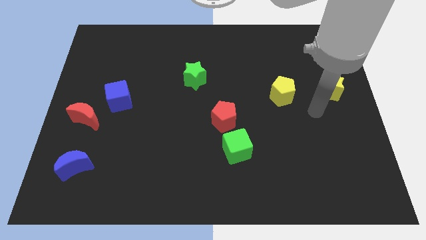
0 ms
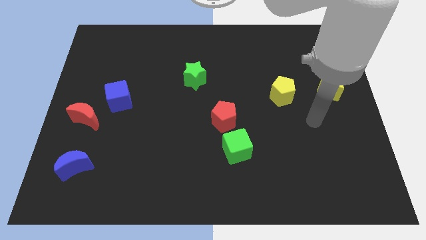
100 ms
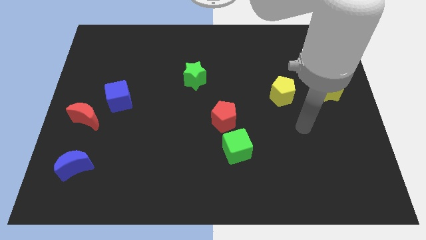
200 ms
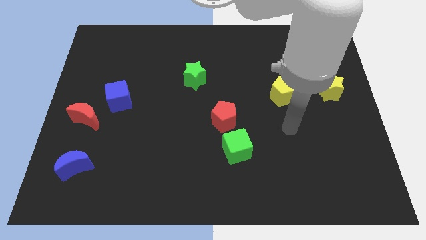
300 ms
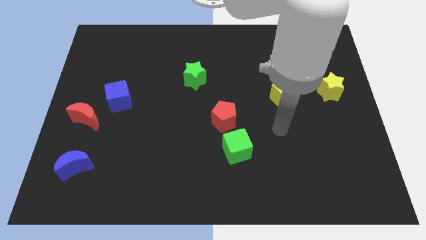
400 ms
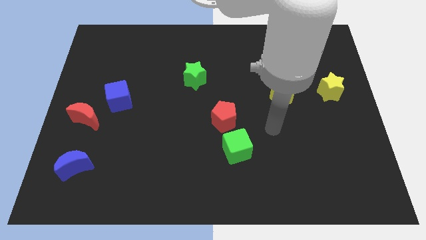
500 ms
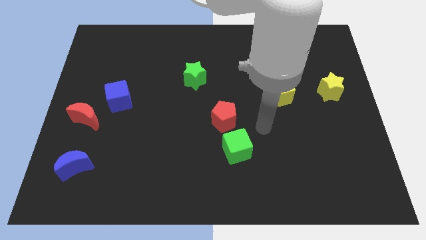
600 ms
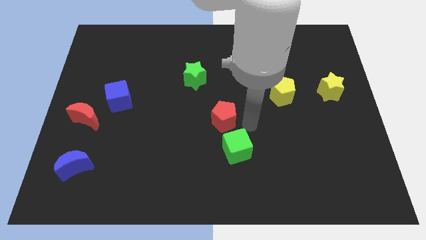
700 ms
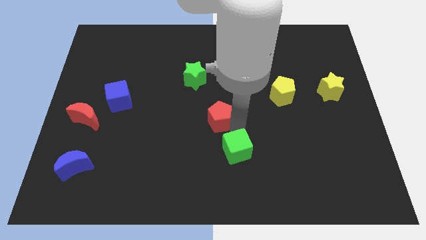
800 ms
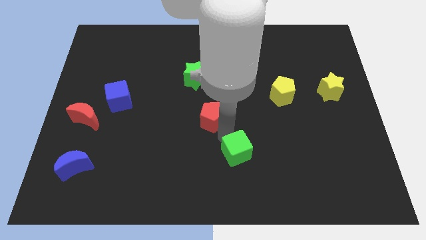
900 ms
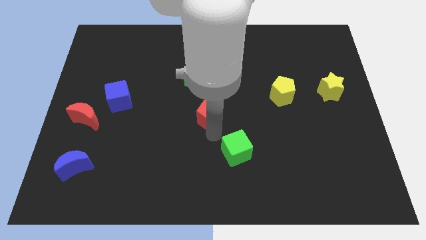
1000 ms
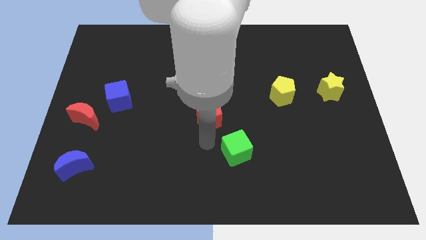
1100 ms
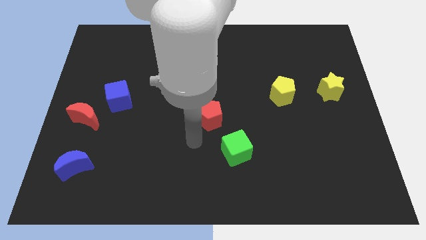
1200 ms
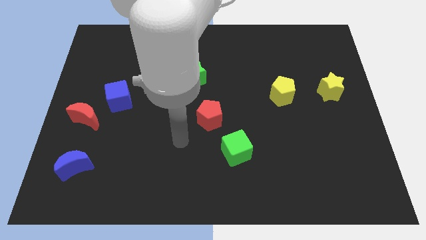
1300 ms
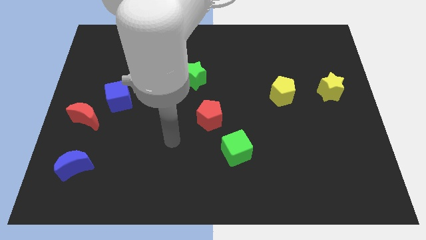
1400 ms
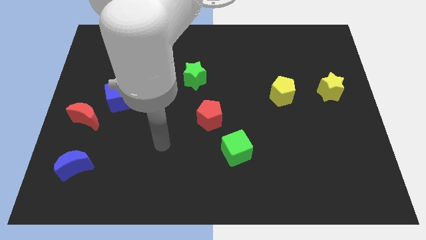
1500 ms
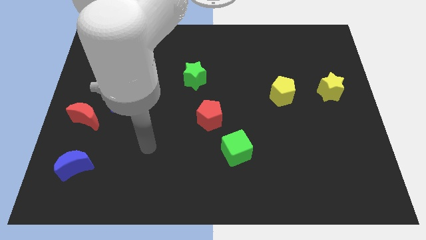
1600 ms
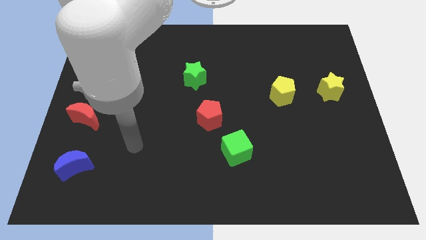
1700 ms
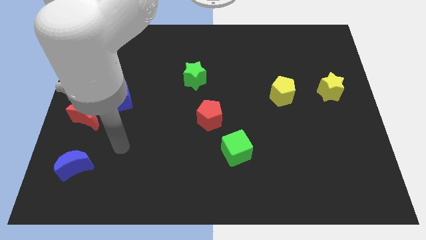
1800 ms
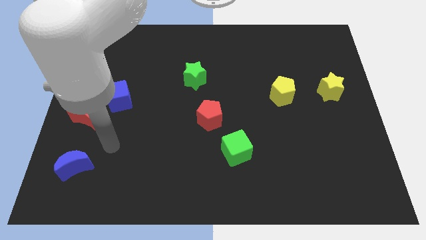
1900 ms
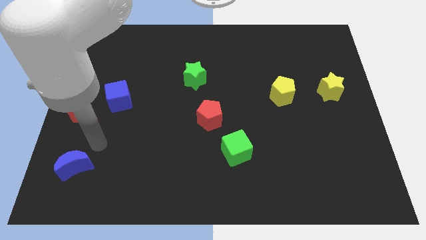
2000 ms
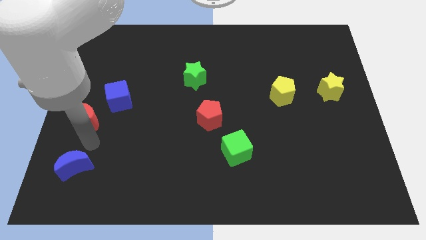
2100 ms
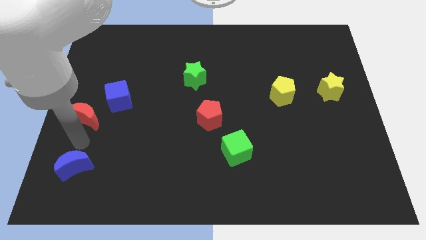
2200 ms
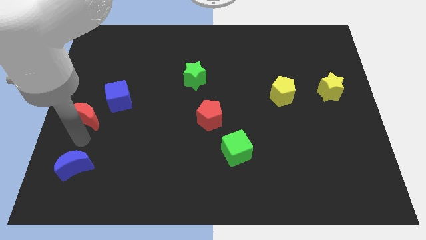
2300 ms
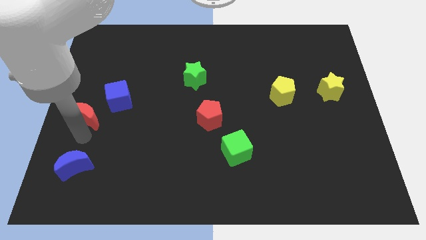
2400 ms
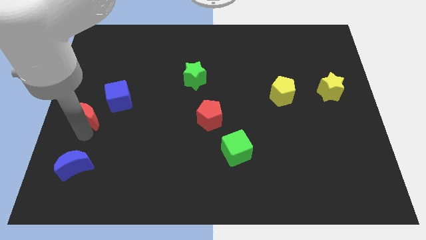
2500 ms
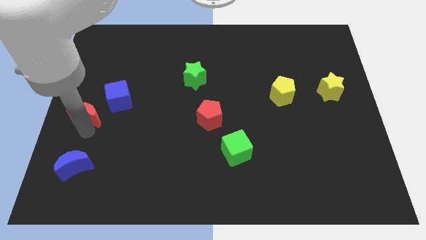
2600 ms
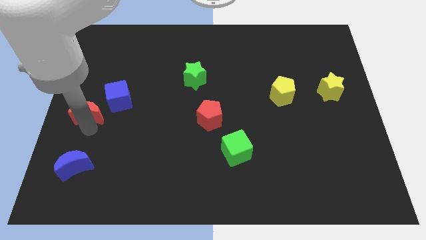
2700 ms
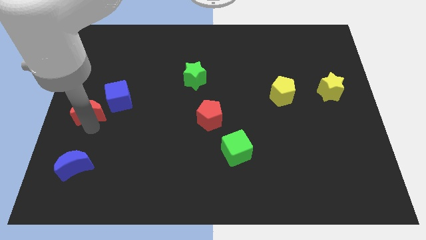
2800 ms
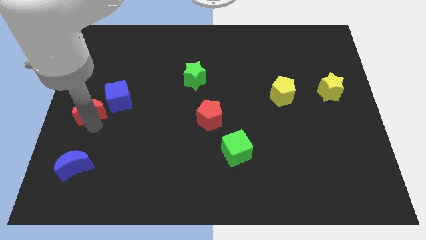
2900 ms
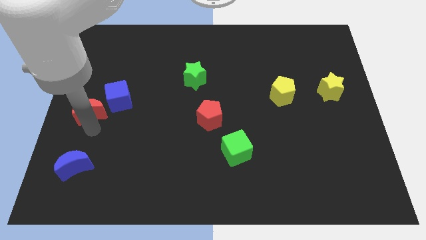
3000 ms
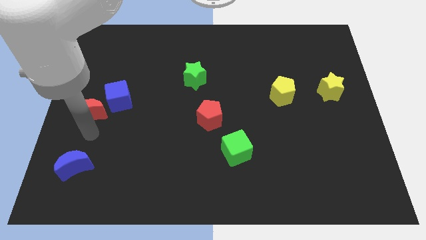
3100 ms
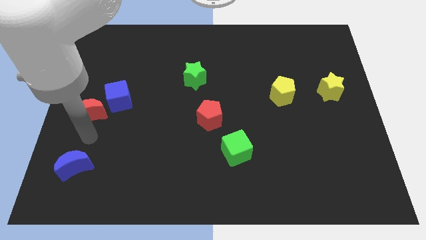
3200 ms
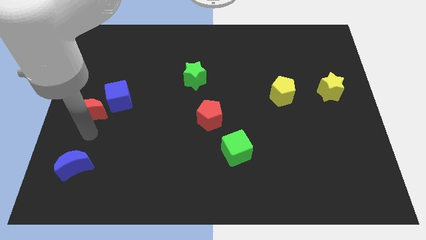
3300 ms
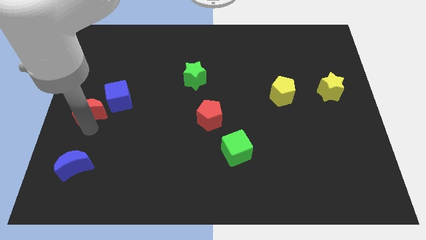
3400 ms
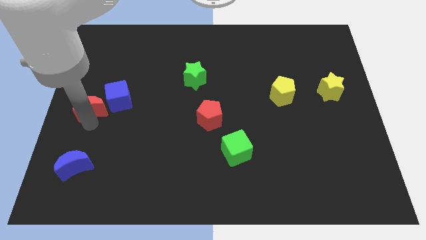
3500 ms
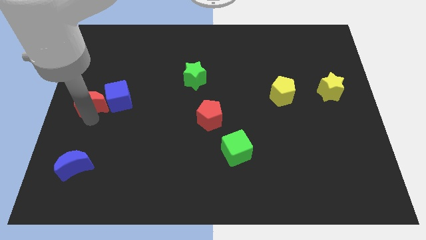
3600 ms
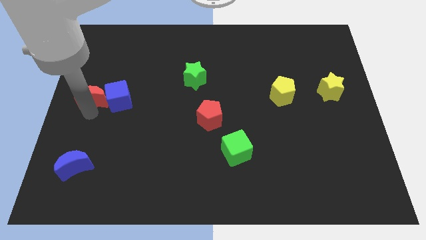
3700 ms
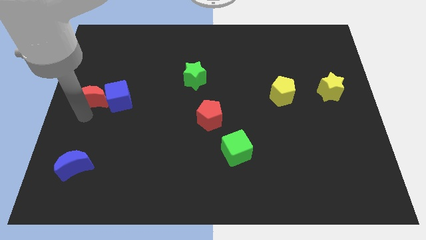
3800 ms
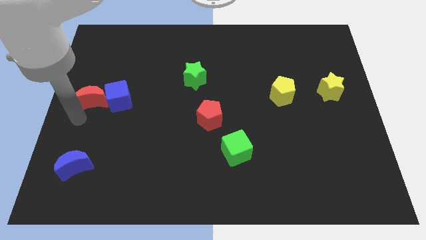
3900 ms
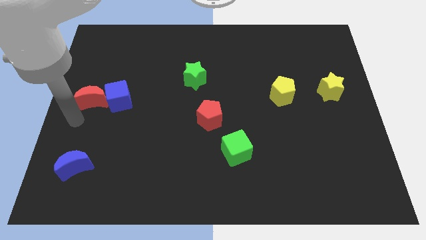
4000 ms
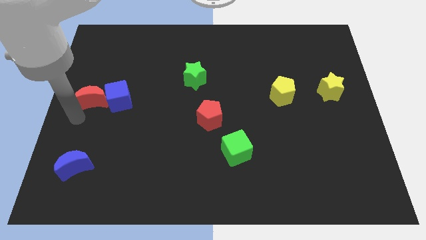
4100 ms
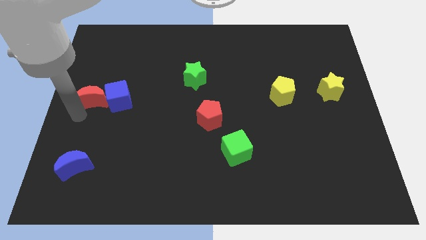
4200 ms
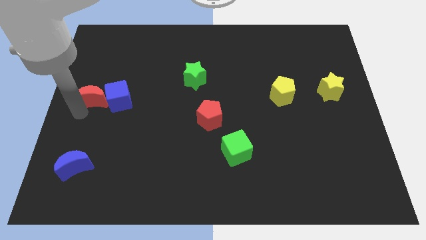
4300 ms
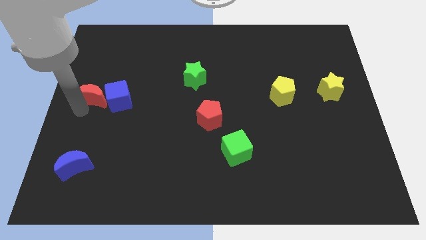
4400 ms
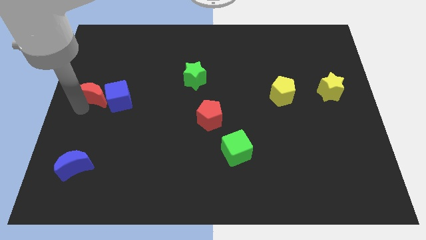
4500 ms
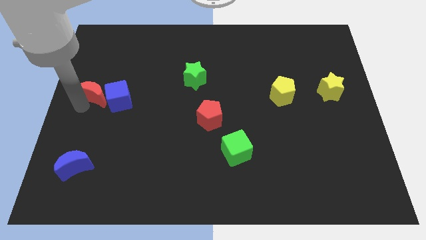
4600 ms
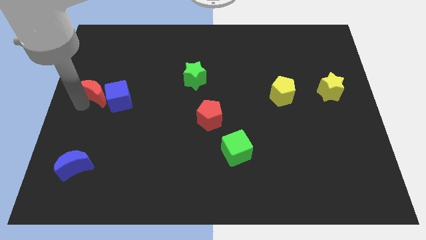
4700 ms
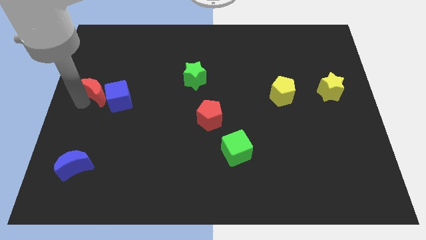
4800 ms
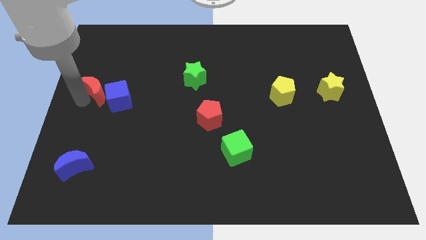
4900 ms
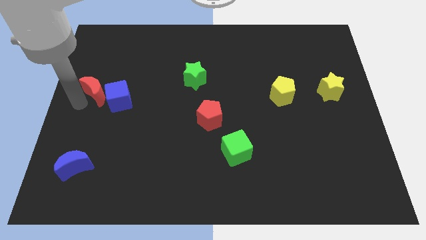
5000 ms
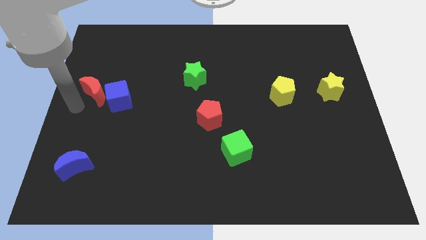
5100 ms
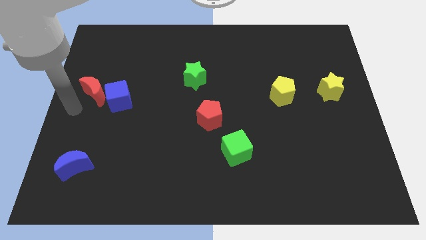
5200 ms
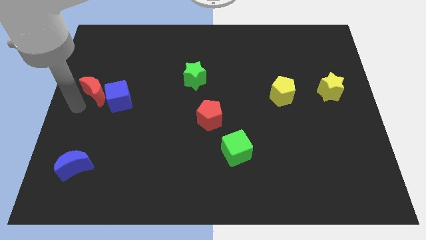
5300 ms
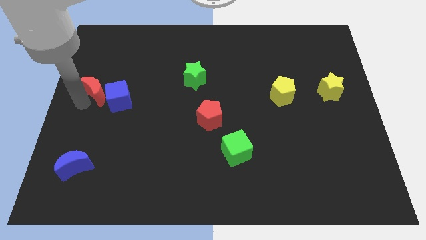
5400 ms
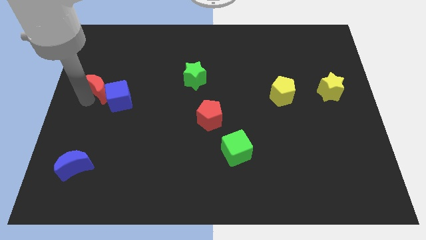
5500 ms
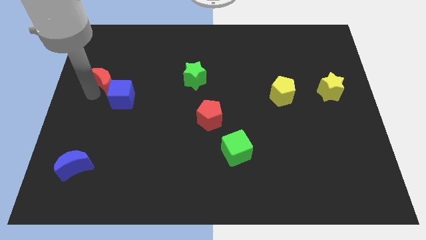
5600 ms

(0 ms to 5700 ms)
slightly push the red moon upwards and to the right

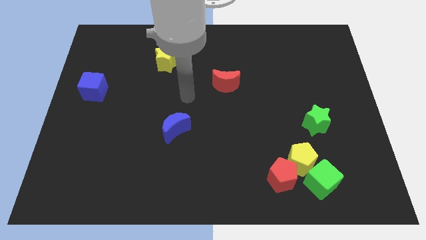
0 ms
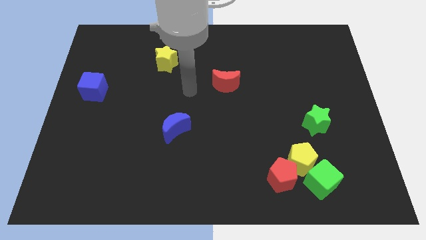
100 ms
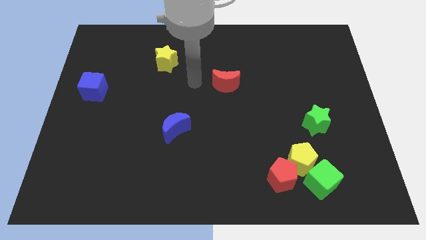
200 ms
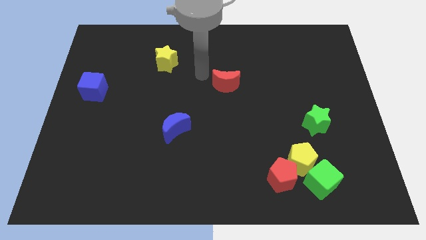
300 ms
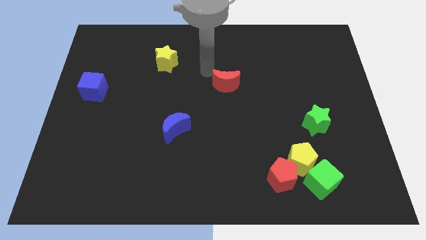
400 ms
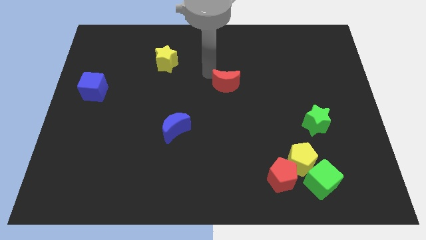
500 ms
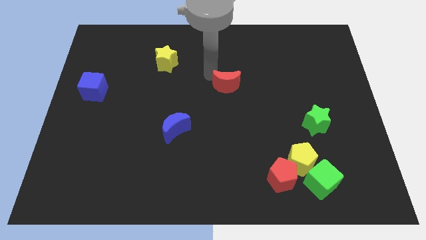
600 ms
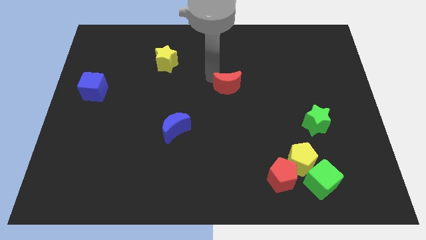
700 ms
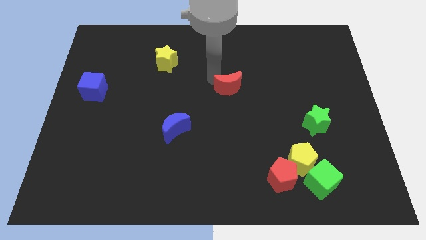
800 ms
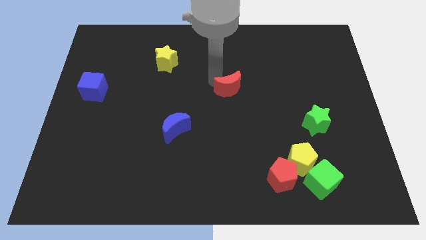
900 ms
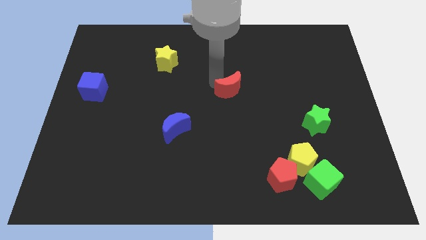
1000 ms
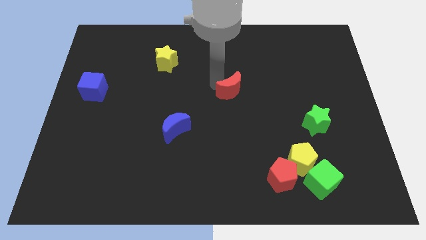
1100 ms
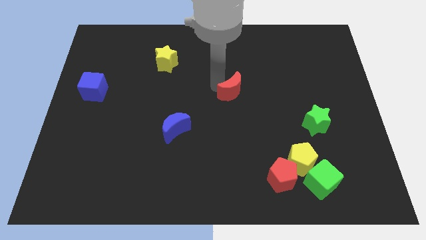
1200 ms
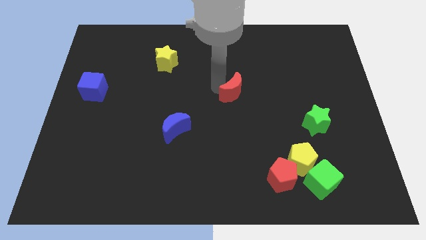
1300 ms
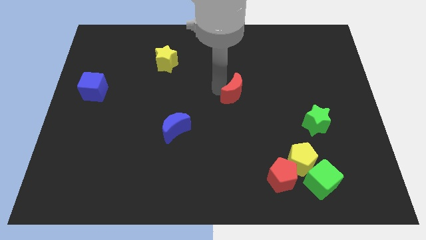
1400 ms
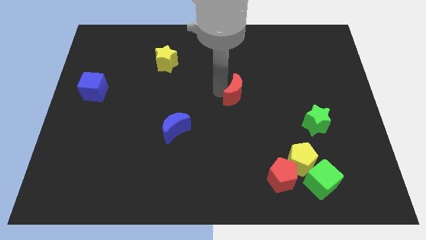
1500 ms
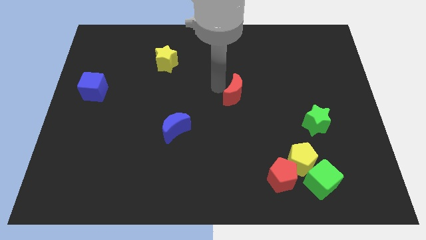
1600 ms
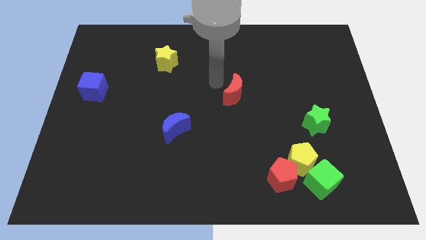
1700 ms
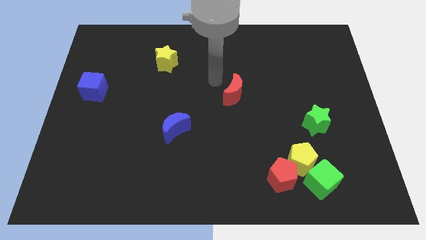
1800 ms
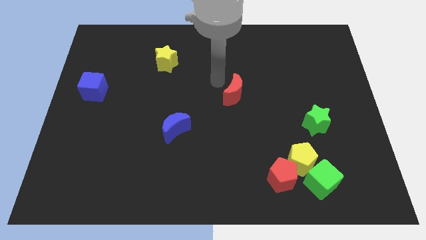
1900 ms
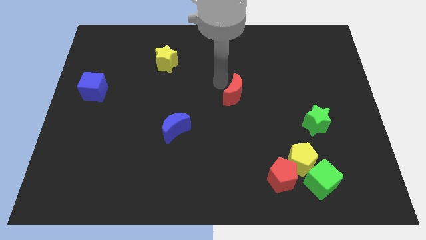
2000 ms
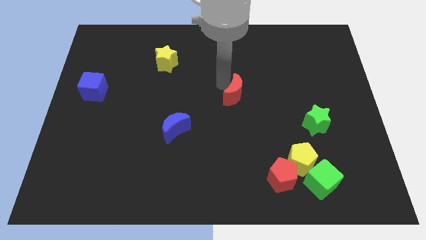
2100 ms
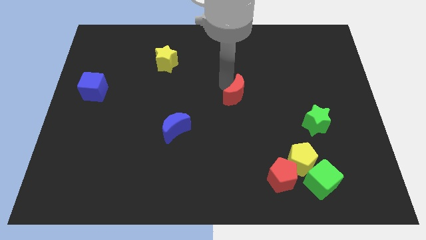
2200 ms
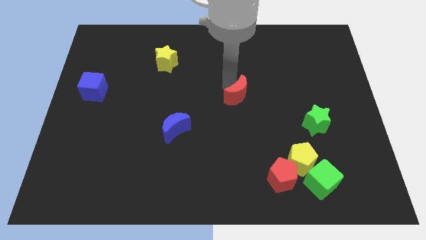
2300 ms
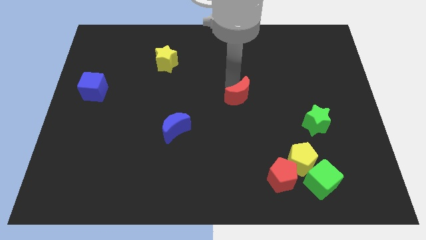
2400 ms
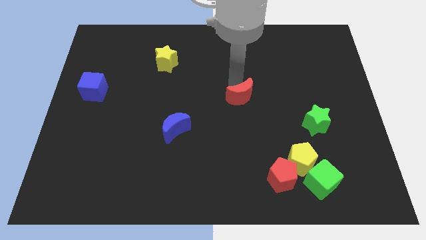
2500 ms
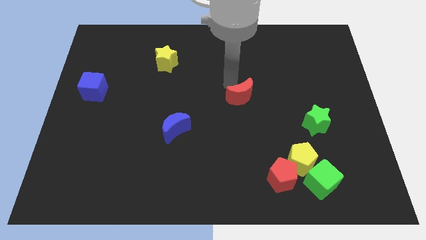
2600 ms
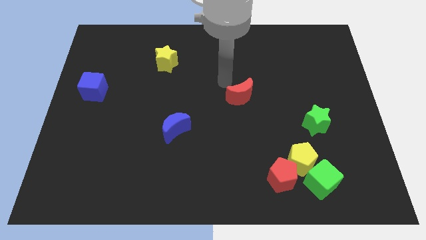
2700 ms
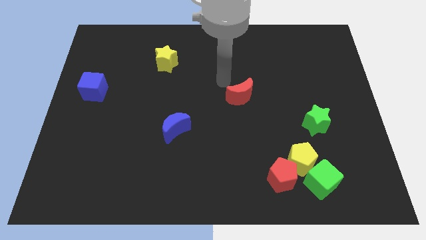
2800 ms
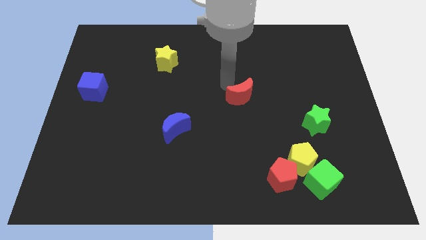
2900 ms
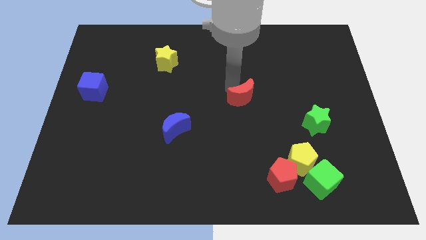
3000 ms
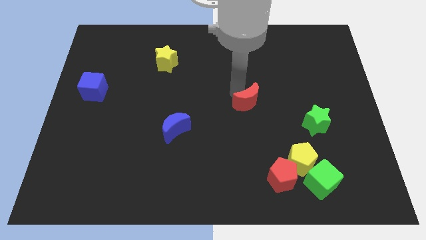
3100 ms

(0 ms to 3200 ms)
push the red moon down and then right slightly
